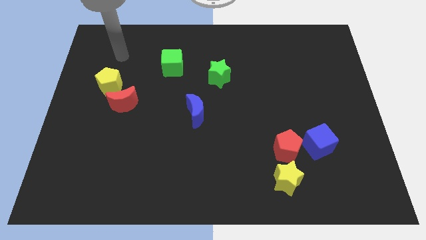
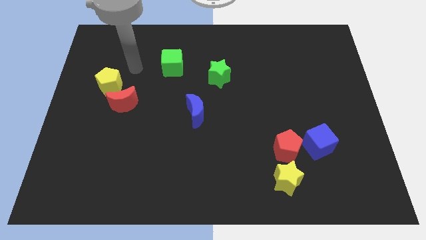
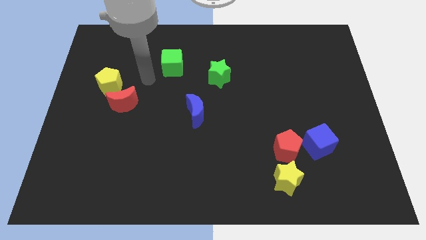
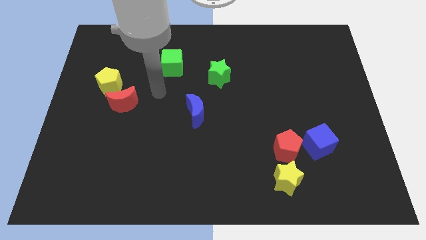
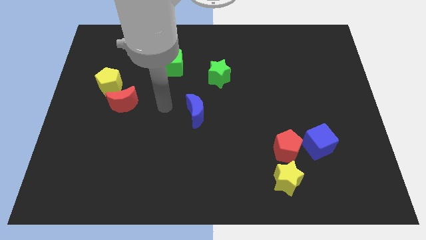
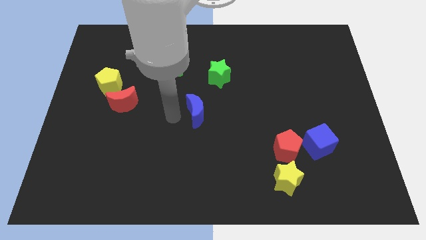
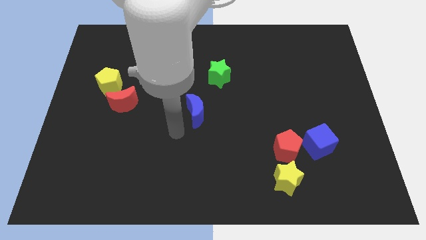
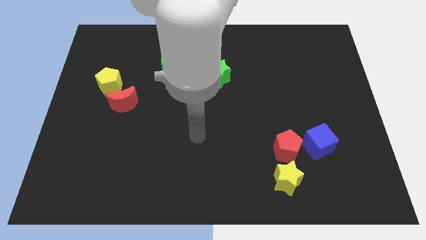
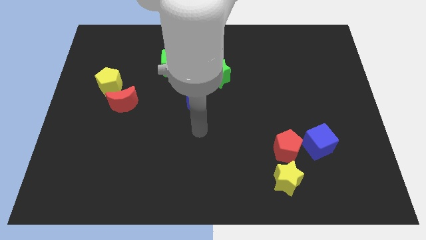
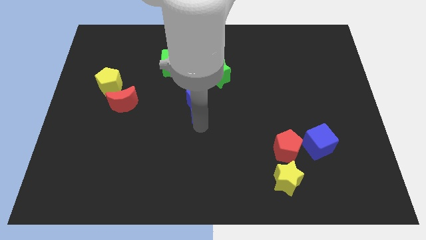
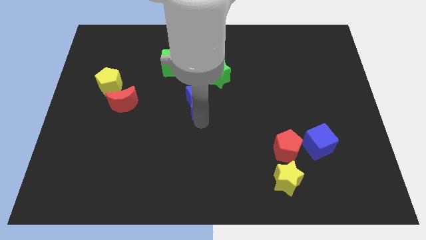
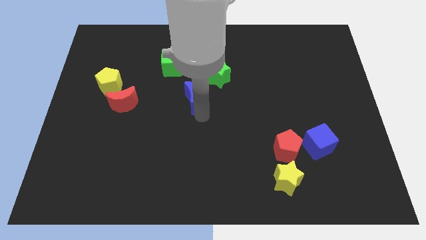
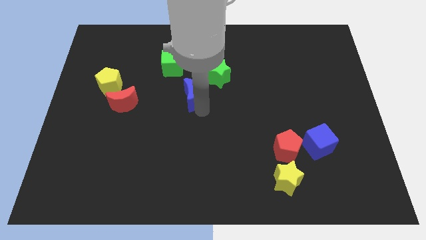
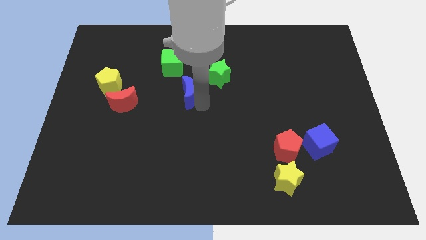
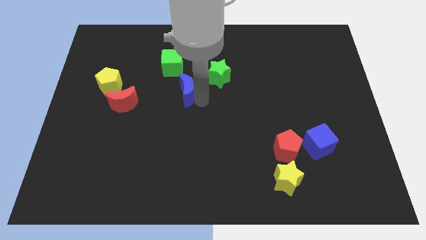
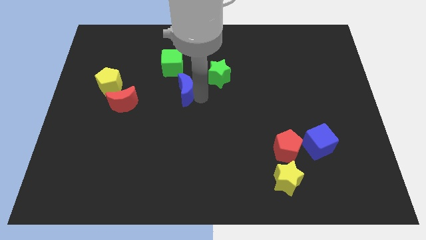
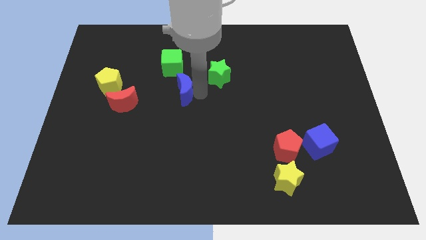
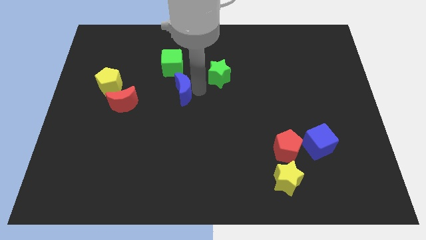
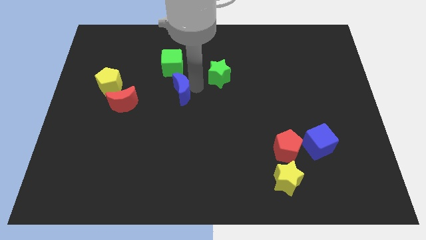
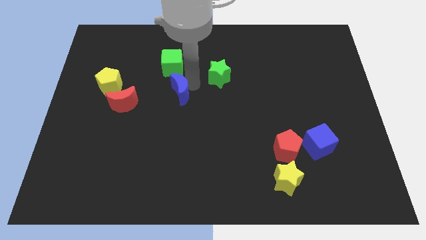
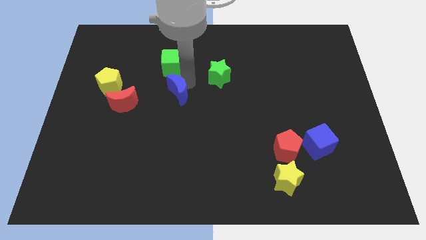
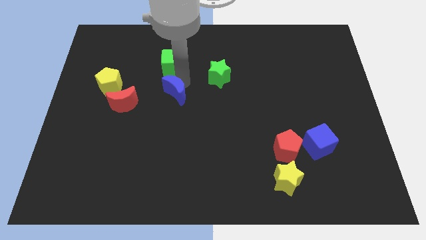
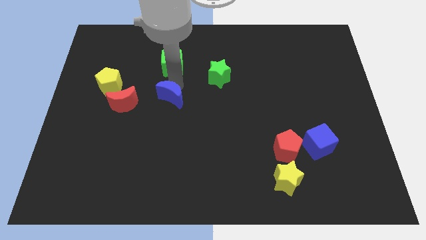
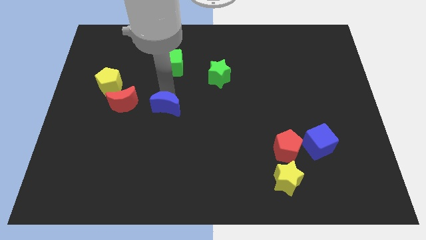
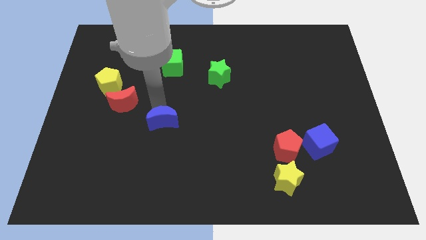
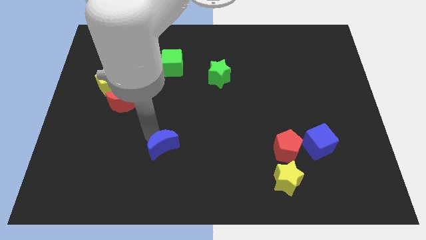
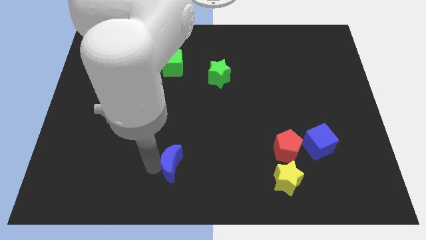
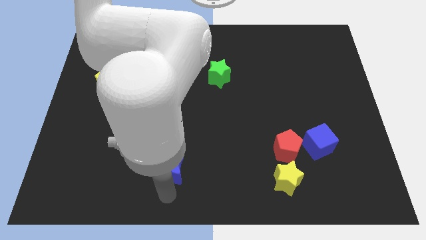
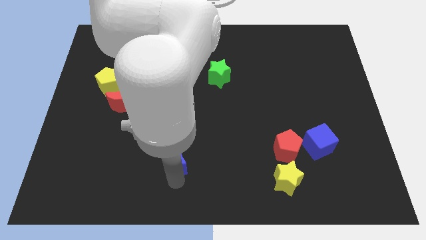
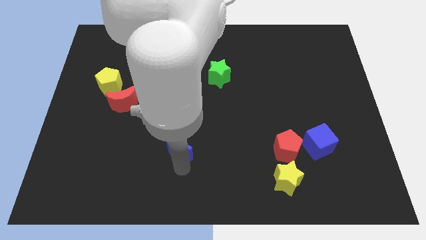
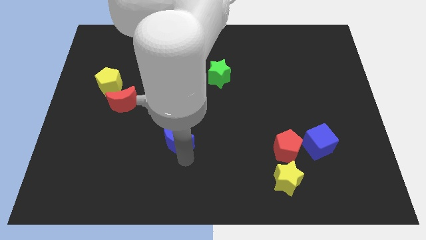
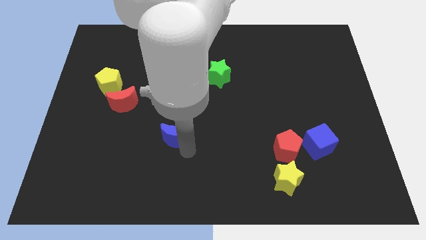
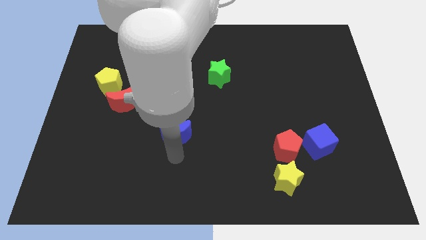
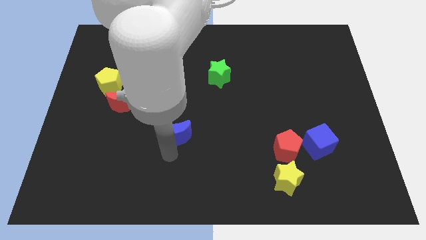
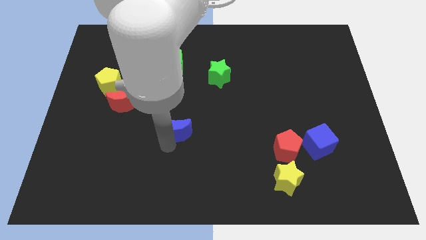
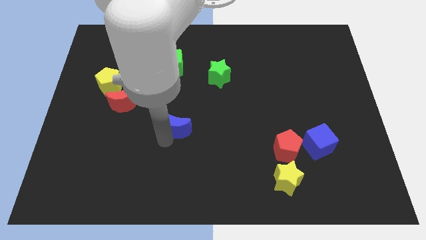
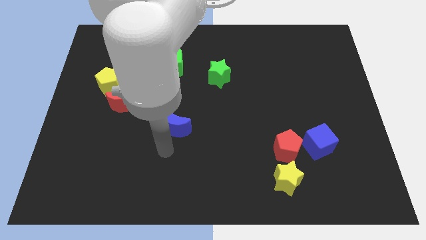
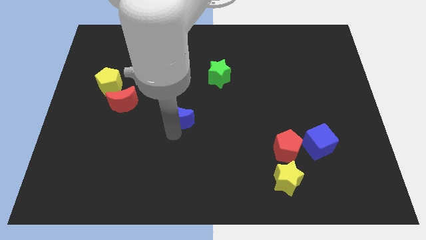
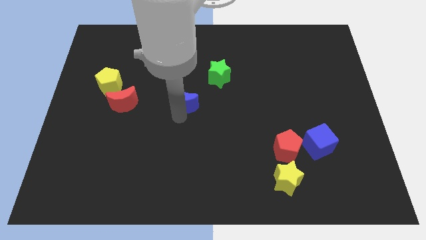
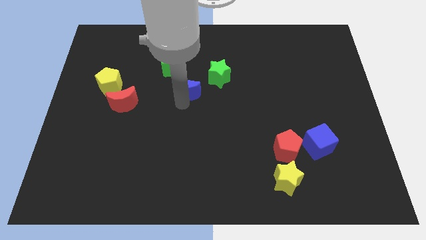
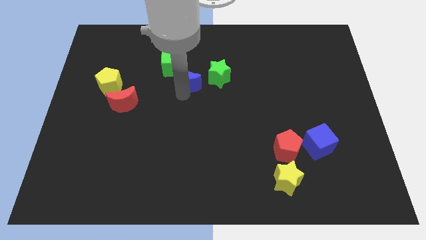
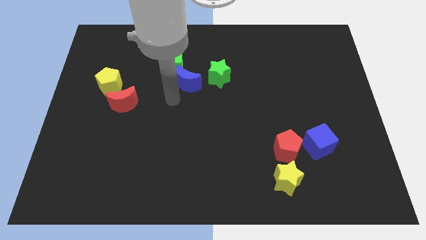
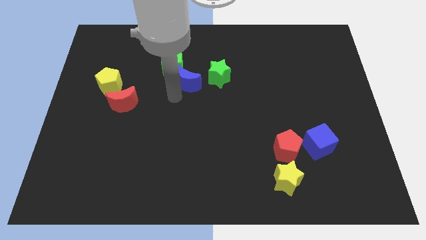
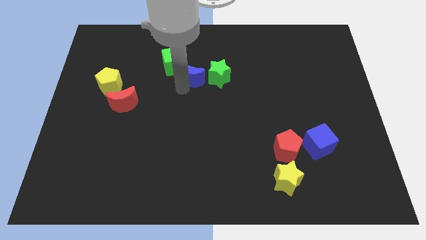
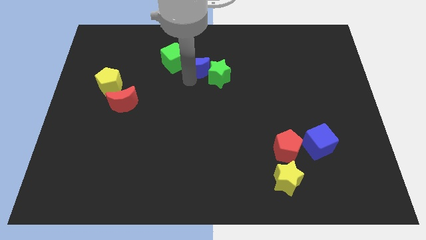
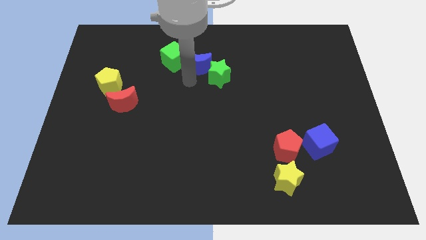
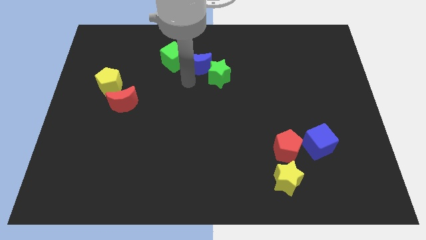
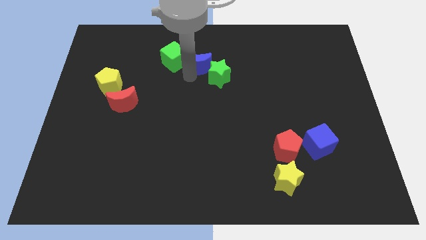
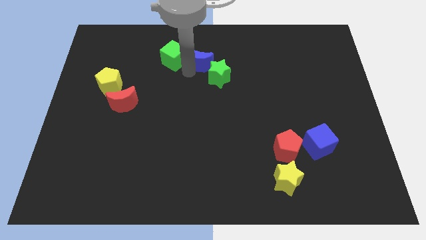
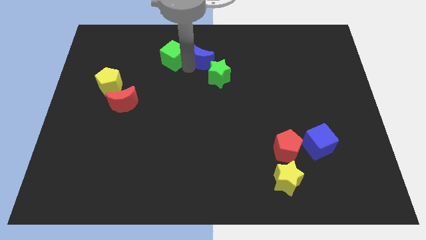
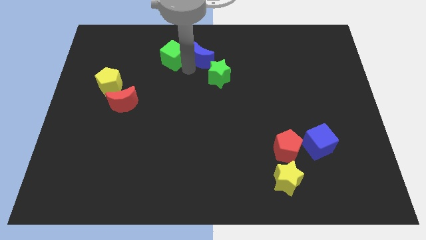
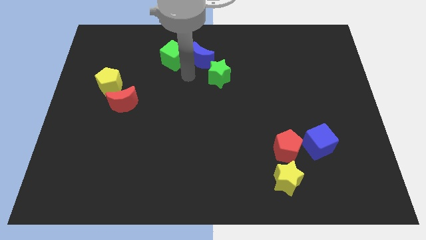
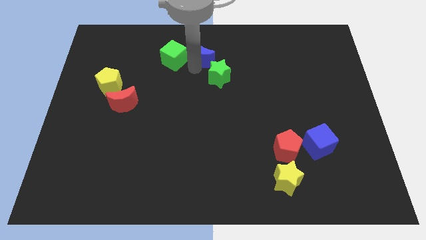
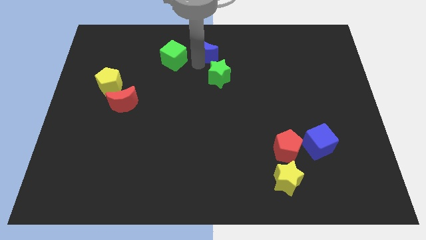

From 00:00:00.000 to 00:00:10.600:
put the blue moon to the towards your base

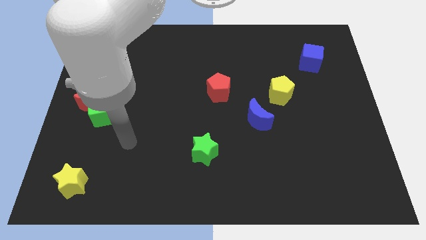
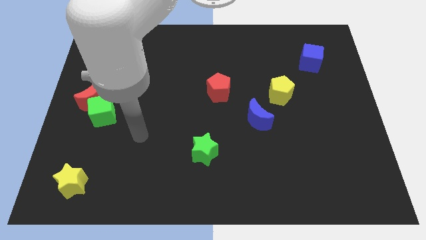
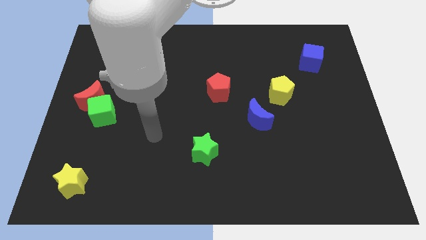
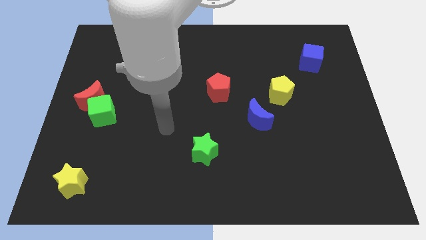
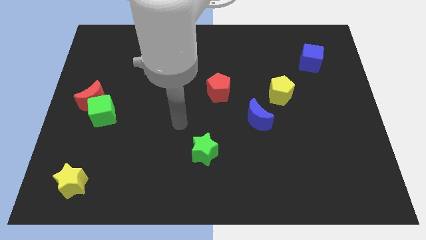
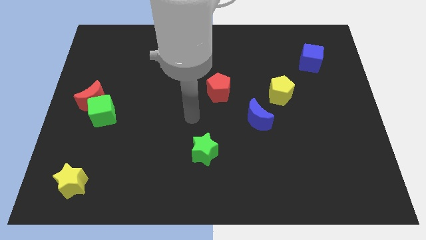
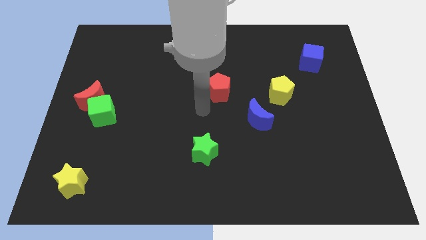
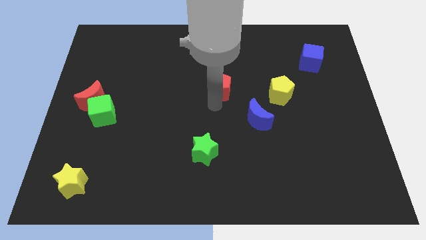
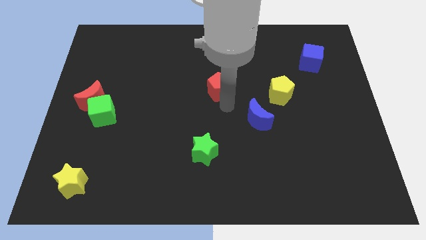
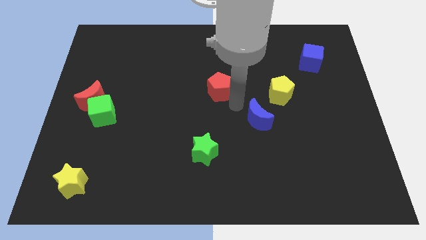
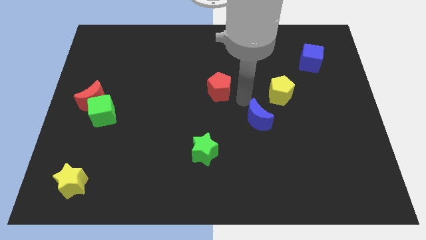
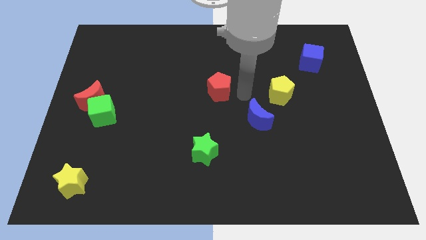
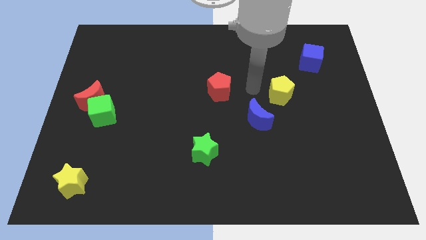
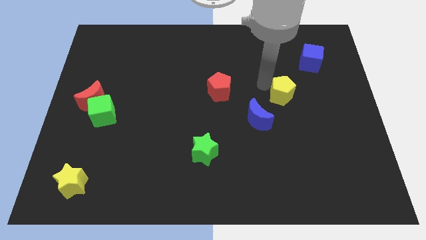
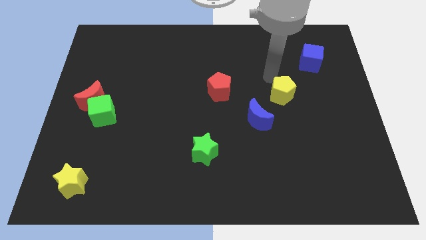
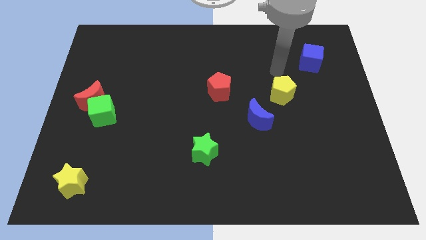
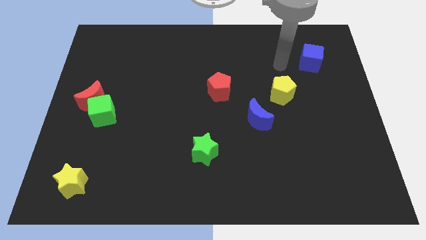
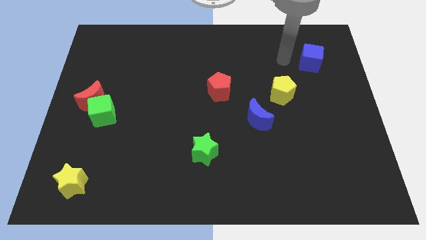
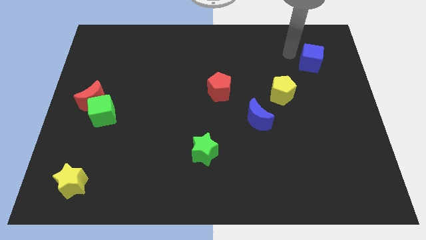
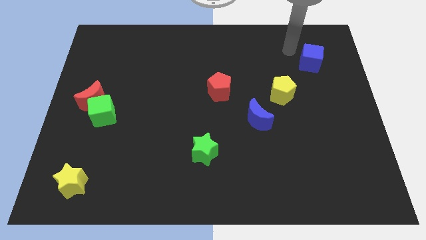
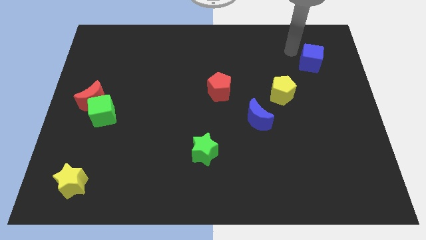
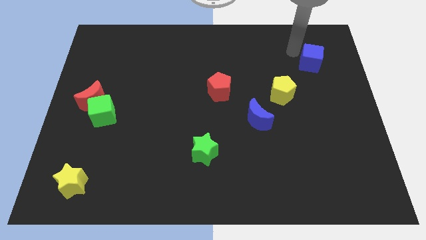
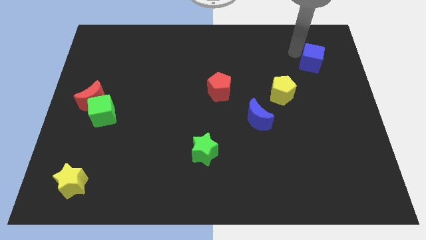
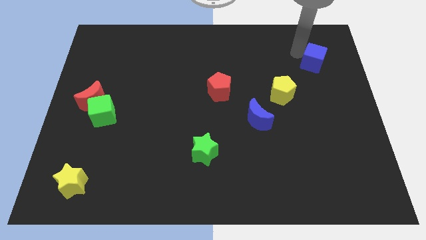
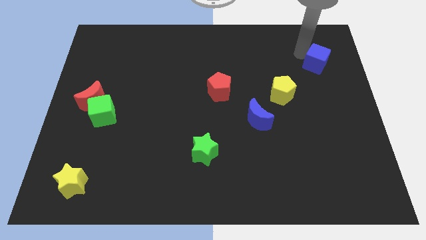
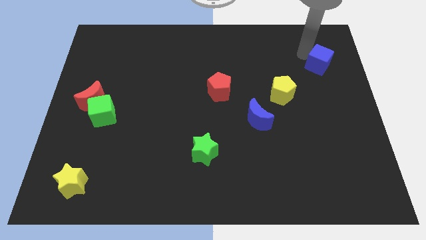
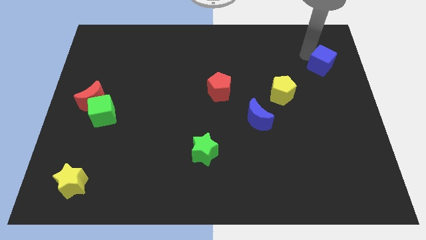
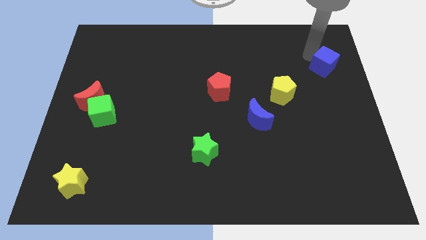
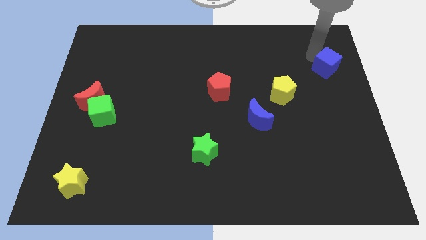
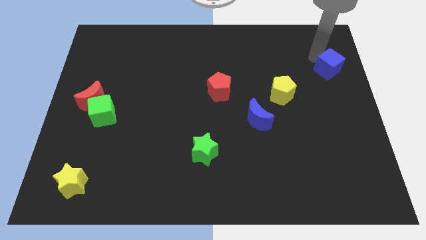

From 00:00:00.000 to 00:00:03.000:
push the blue cube to the right side of the board
